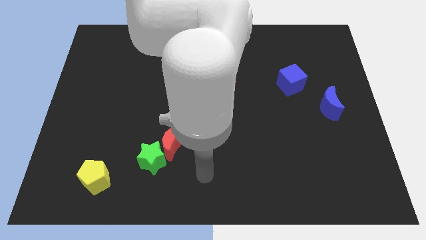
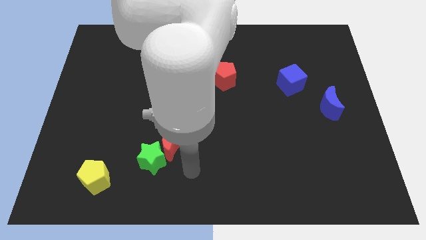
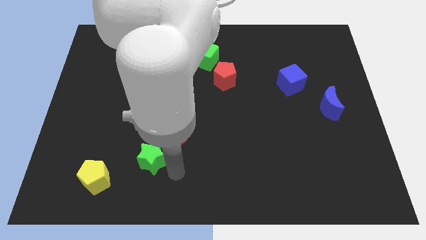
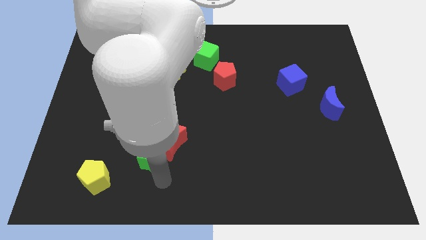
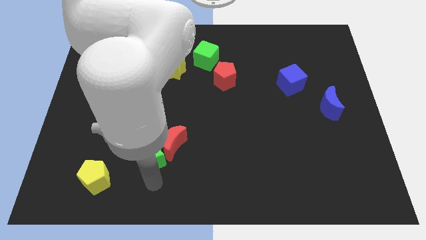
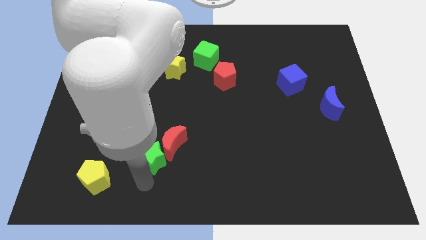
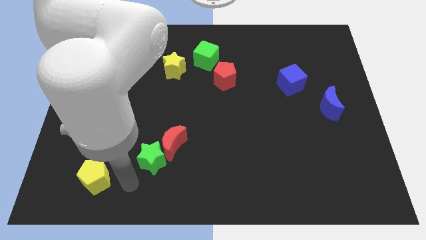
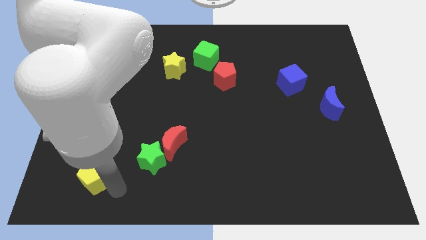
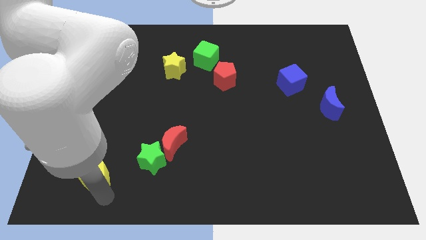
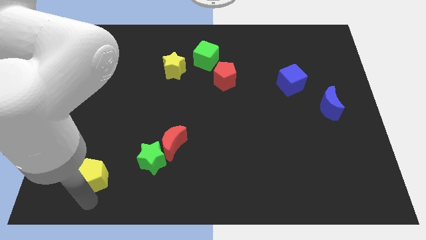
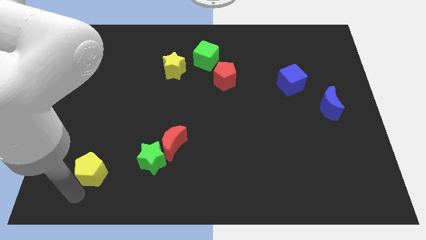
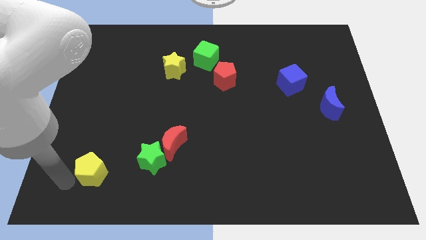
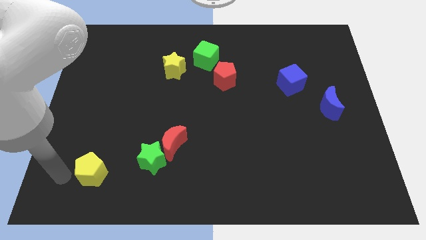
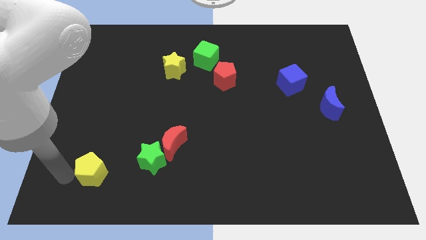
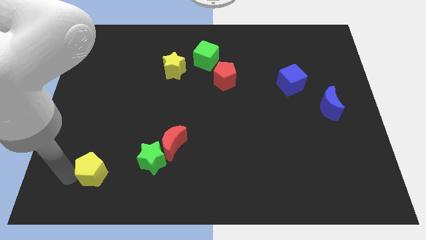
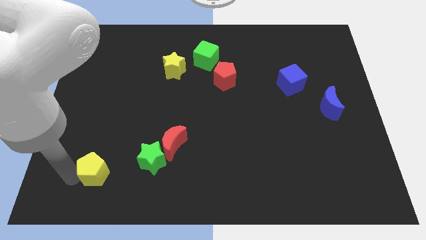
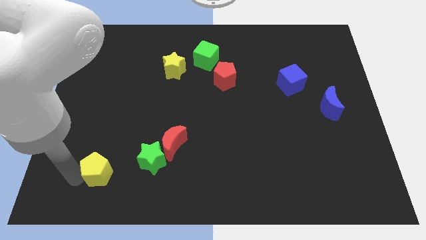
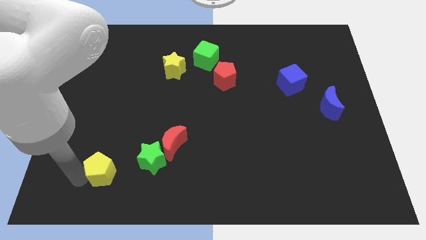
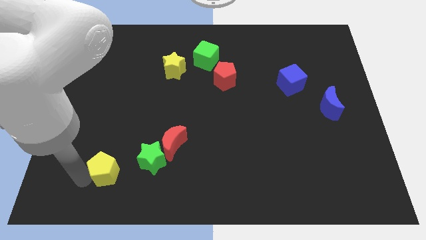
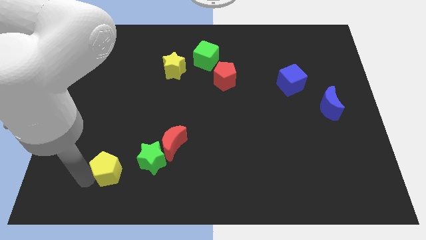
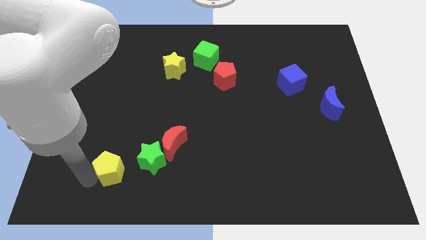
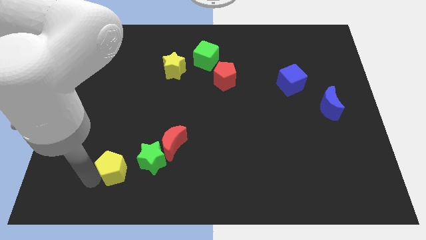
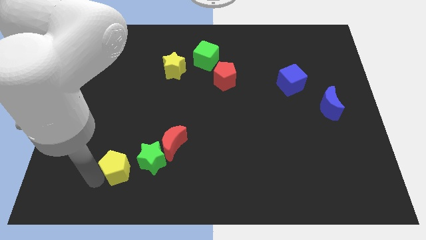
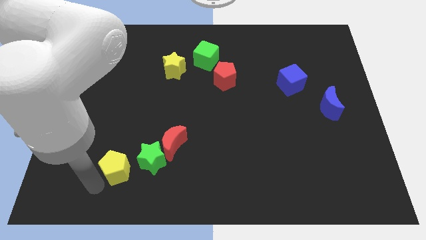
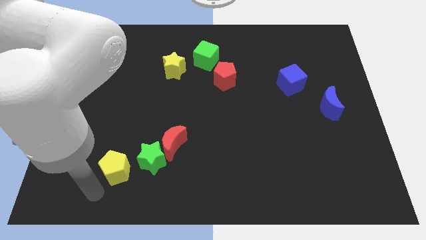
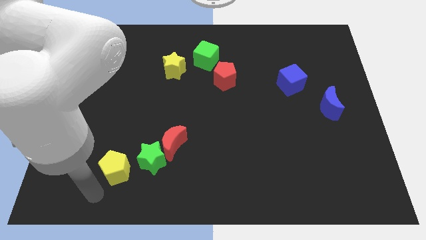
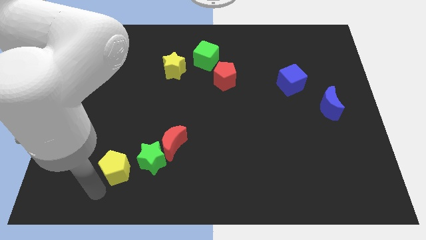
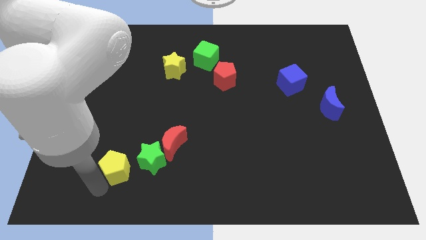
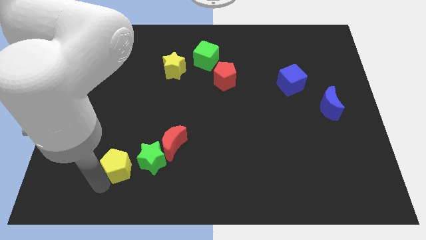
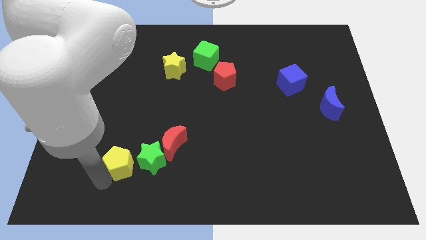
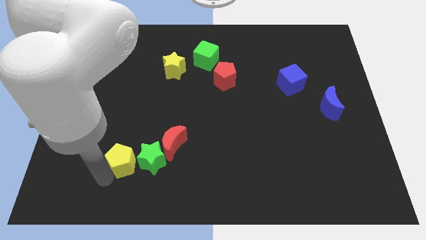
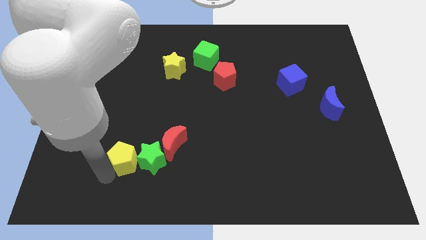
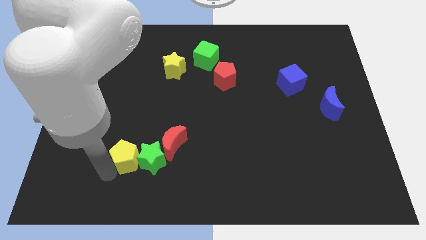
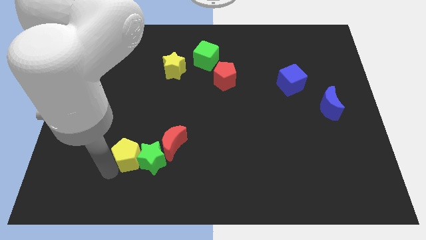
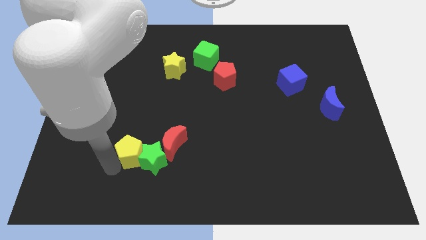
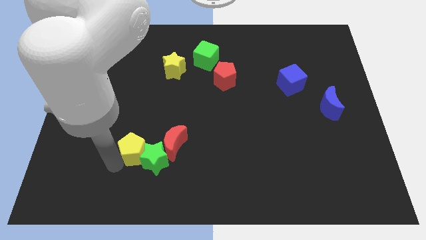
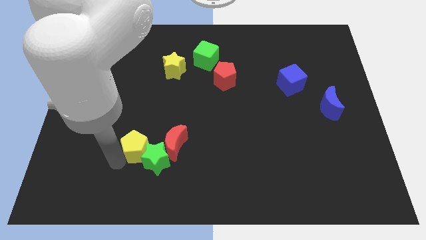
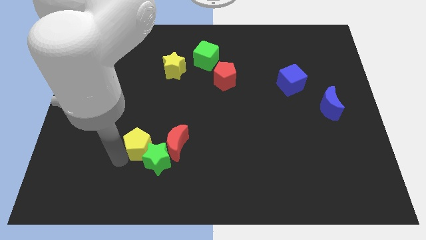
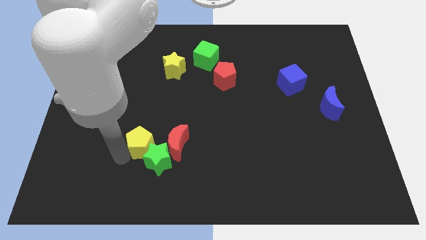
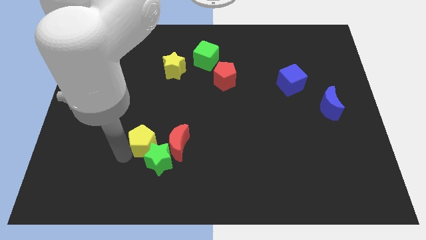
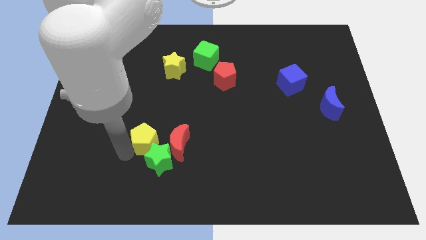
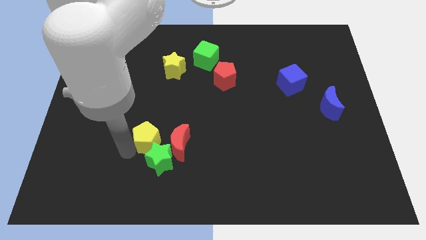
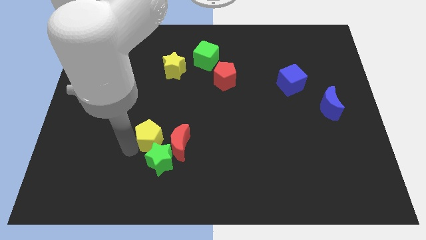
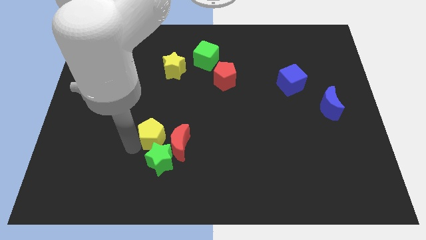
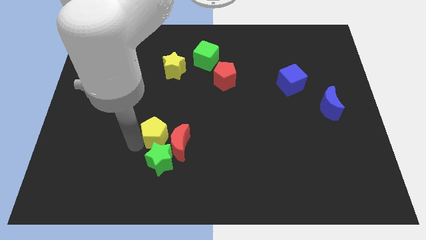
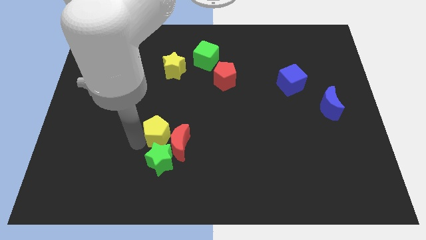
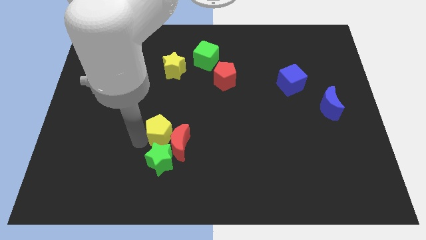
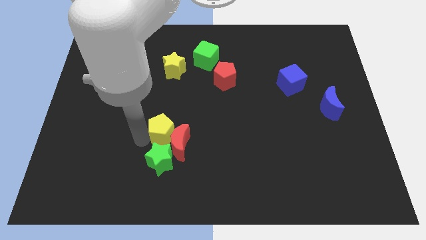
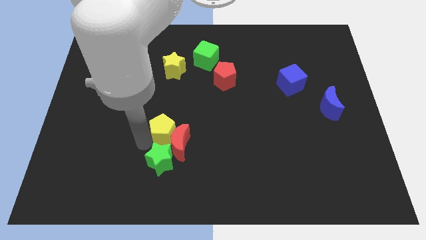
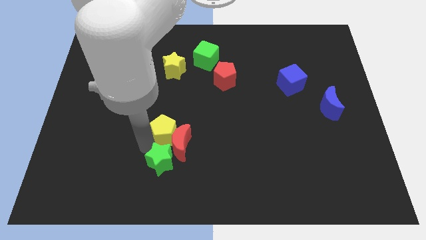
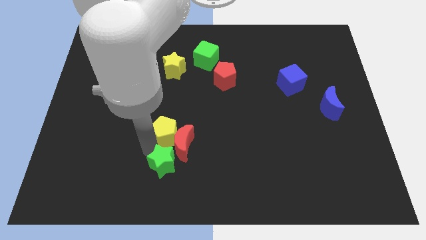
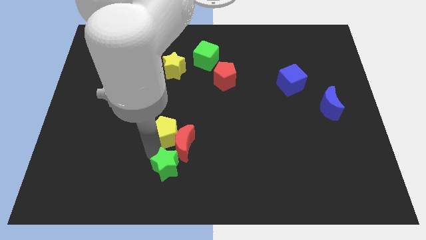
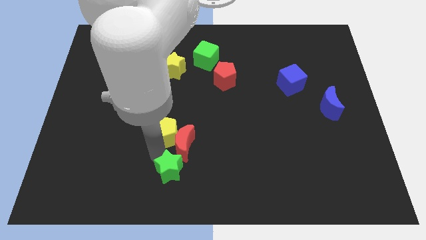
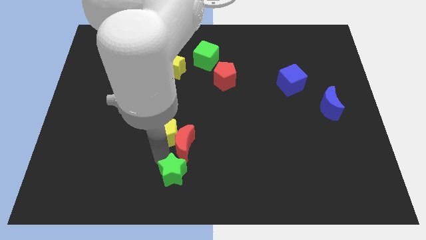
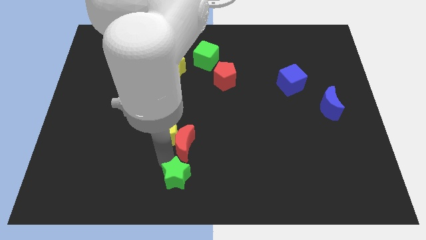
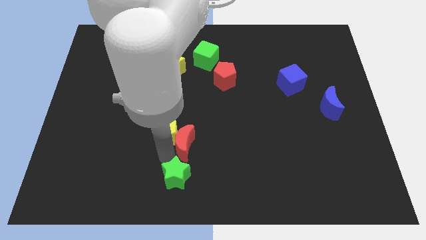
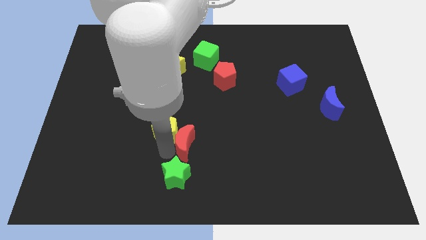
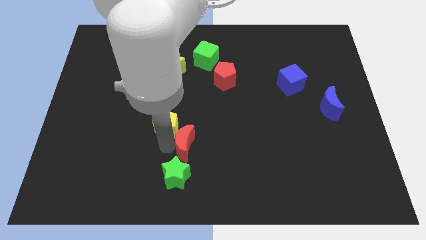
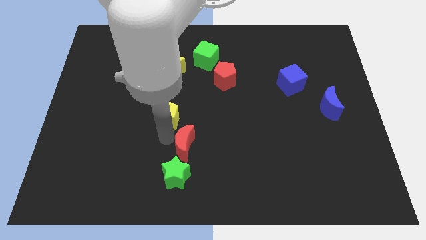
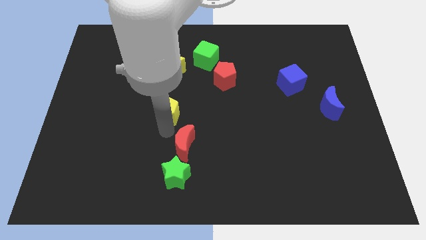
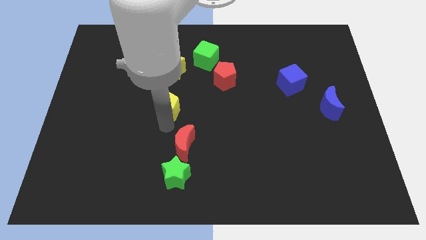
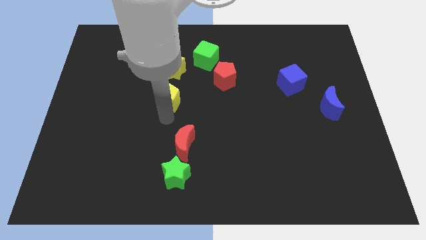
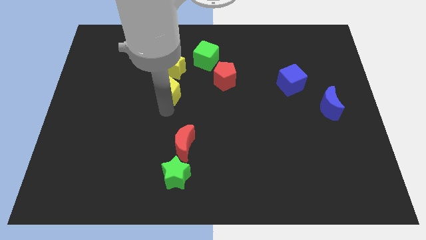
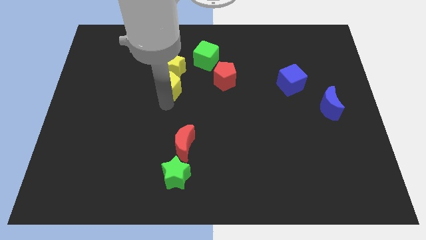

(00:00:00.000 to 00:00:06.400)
move the yellow pentagon to the left of the red pentagon

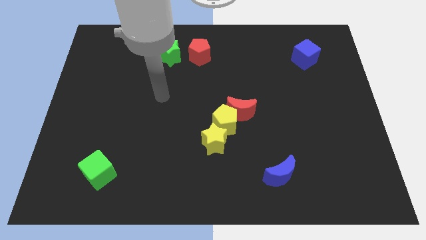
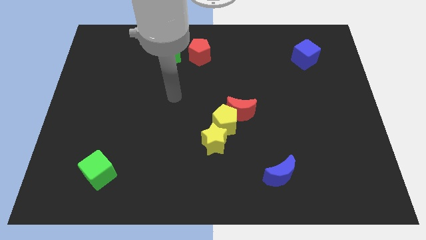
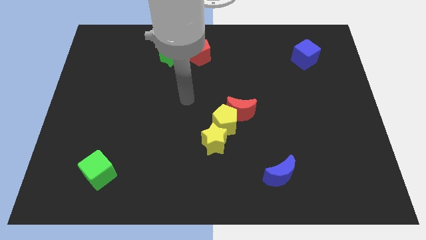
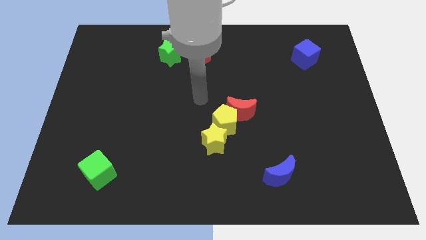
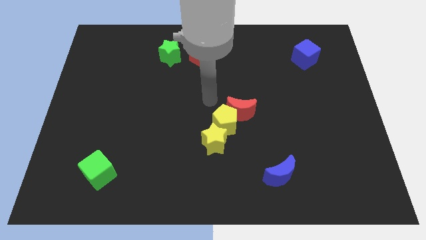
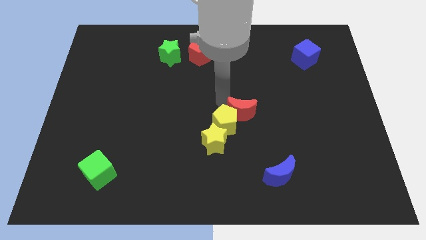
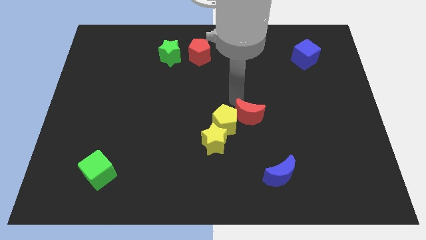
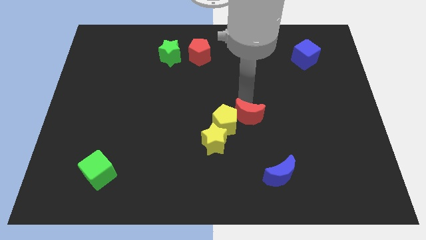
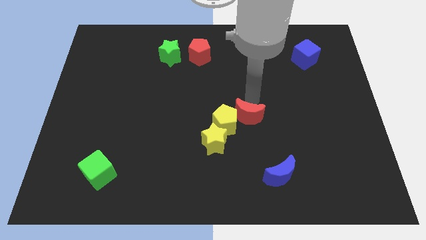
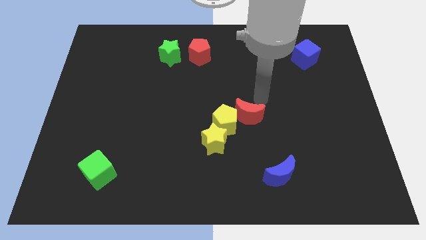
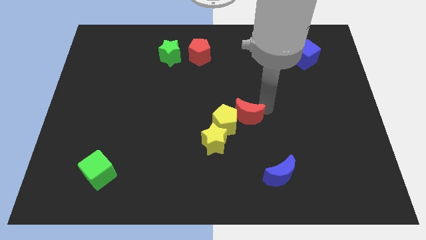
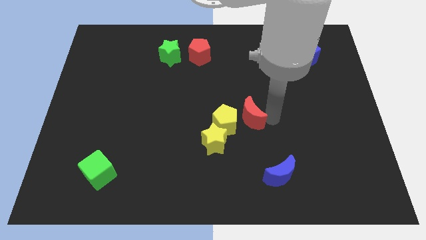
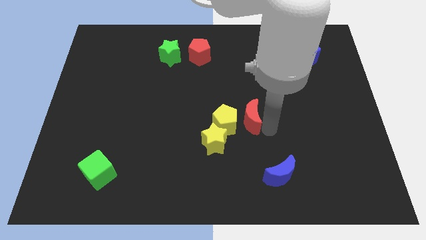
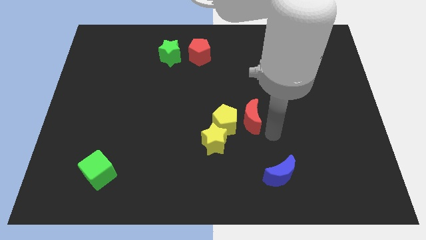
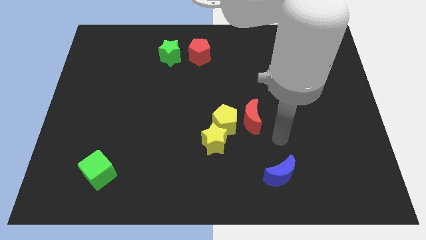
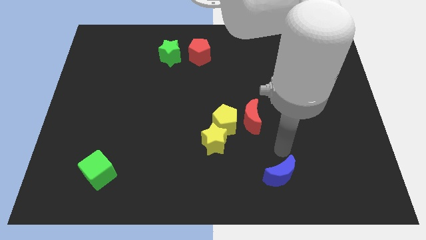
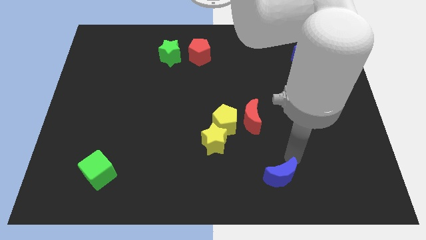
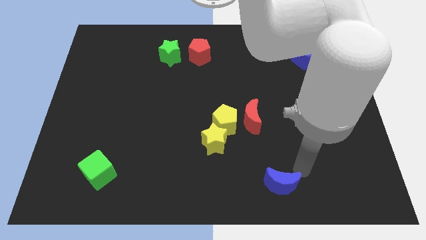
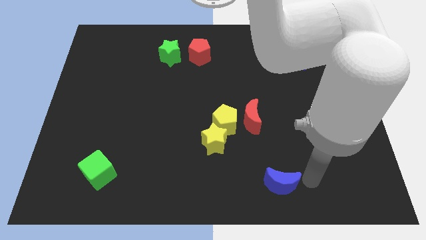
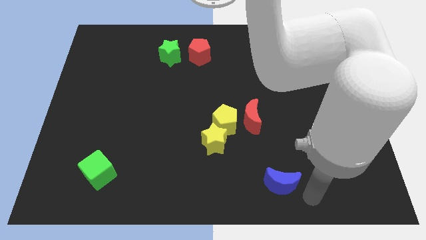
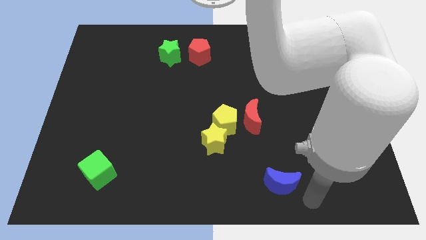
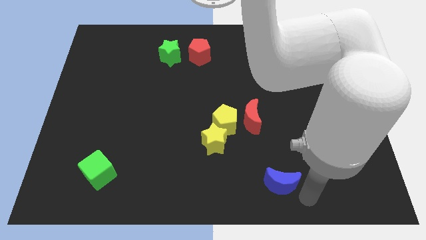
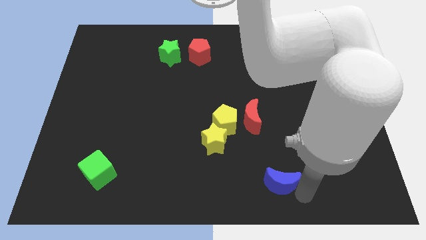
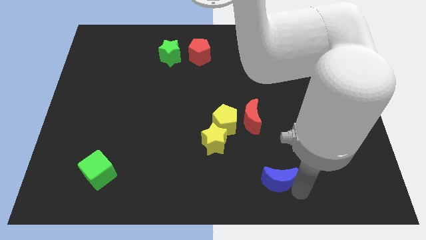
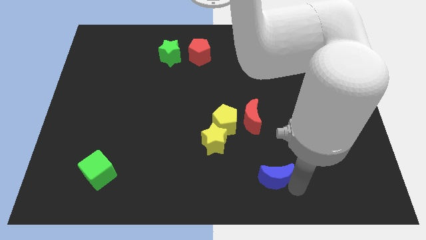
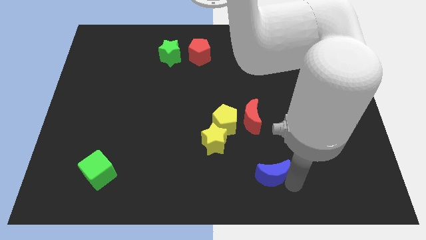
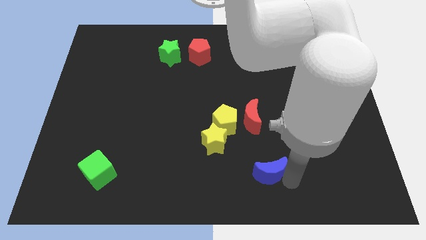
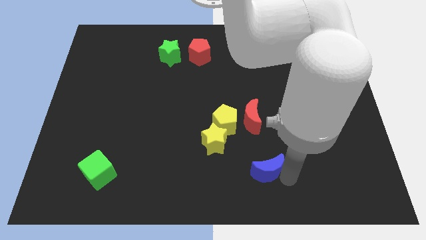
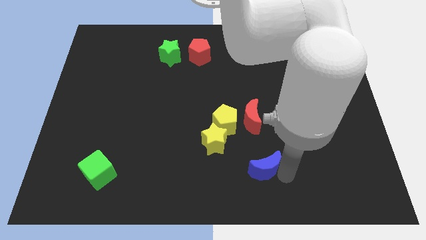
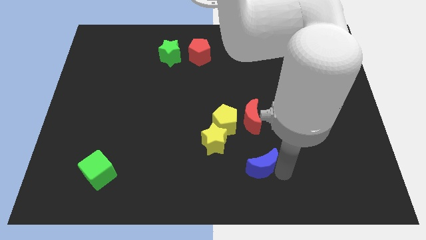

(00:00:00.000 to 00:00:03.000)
push the blue moon diagonally down and to the right of the yellow star
